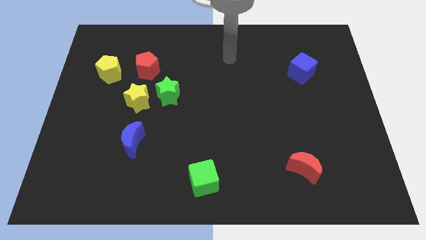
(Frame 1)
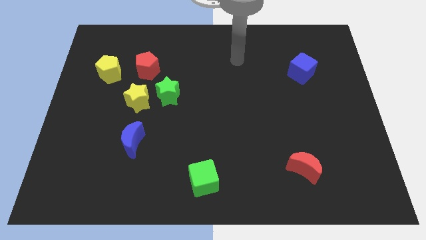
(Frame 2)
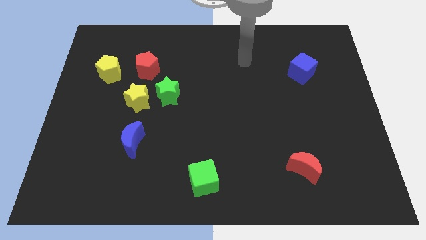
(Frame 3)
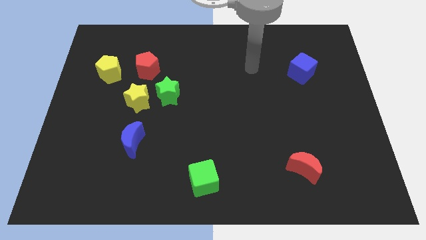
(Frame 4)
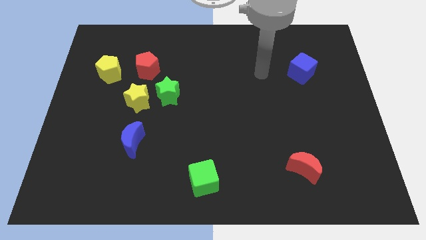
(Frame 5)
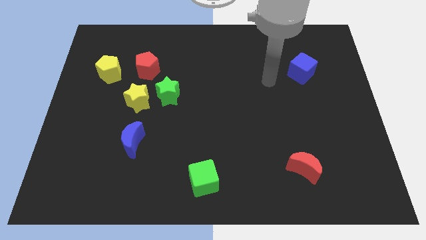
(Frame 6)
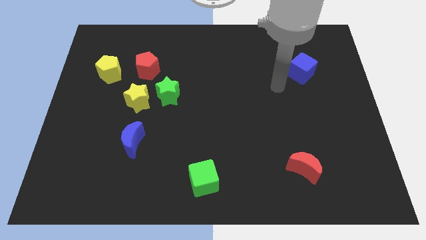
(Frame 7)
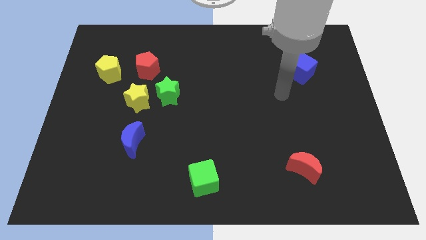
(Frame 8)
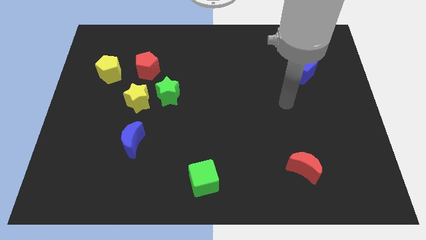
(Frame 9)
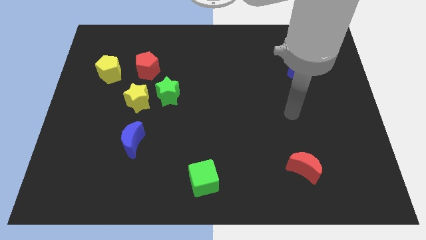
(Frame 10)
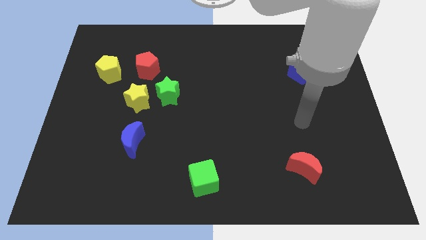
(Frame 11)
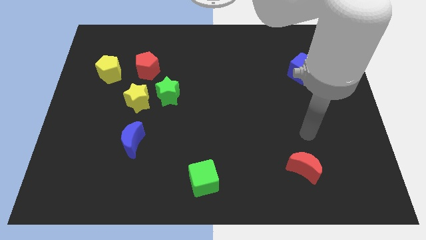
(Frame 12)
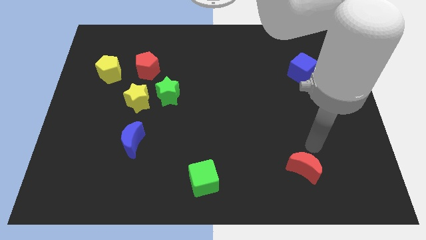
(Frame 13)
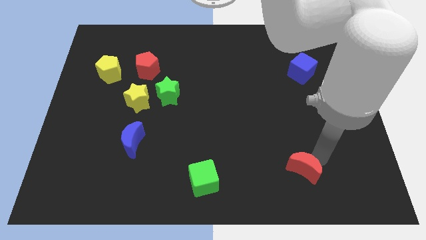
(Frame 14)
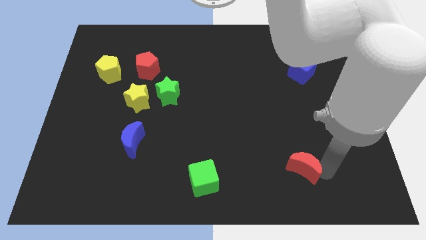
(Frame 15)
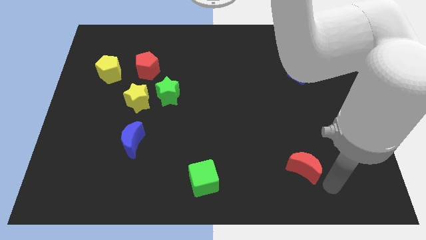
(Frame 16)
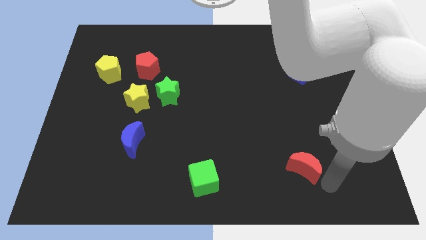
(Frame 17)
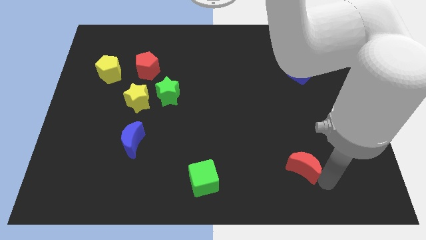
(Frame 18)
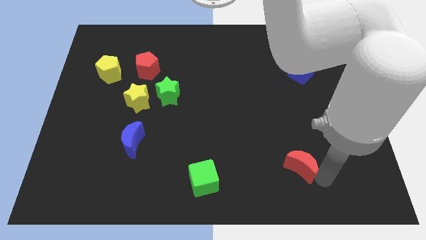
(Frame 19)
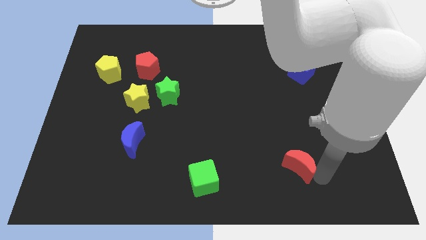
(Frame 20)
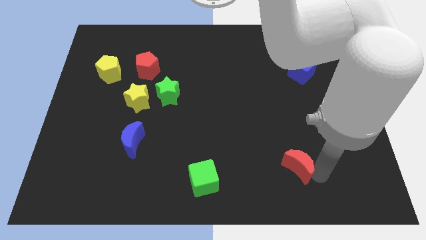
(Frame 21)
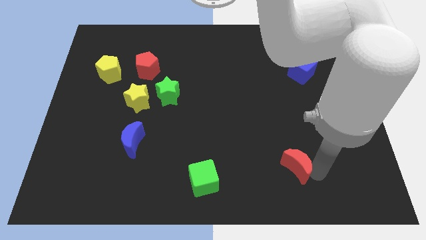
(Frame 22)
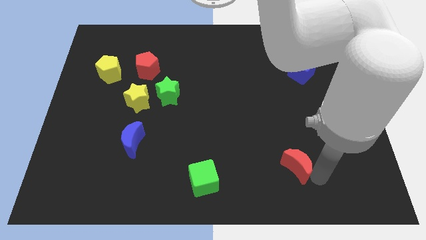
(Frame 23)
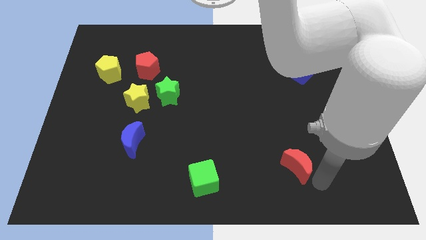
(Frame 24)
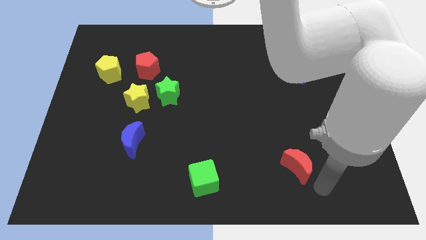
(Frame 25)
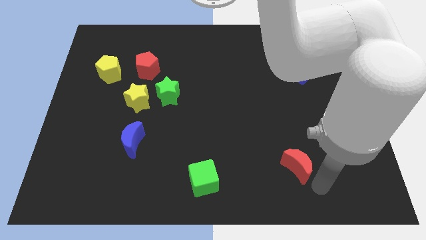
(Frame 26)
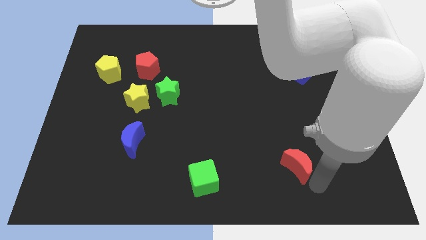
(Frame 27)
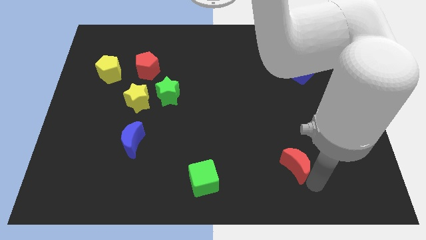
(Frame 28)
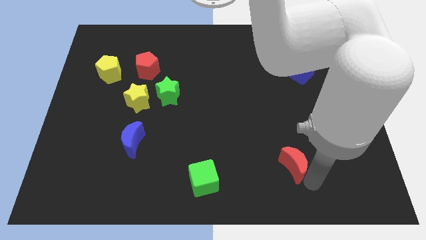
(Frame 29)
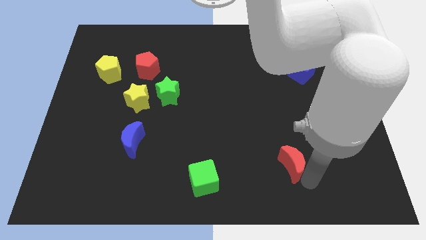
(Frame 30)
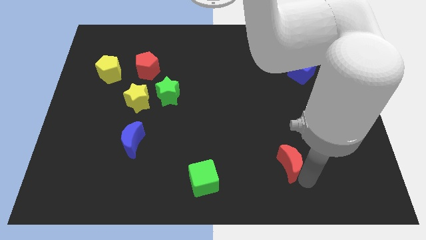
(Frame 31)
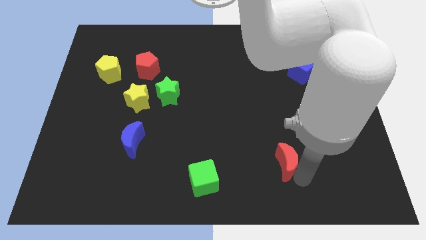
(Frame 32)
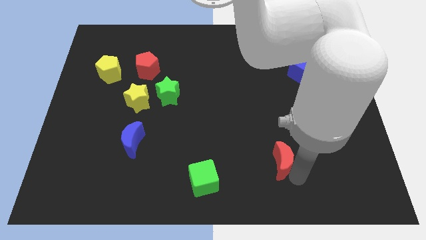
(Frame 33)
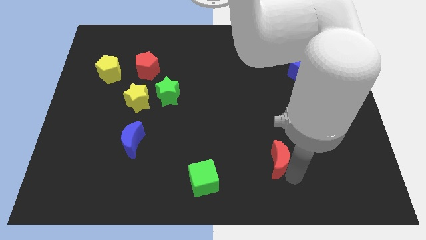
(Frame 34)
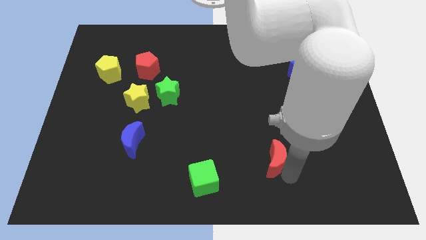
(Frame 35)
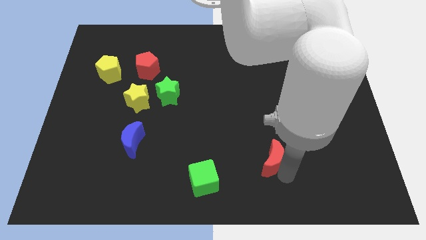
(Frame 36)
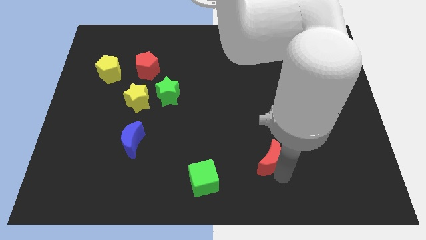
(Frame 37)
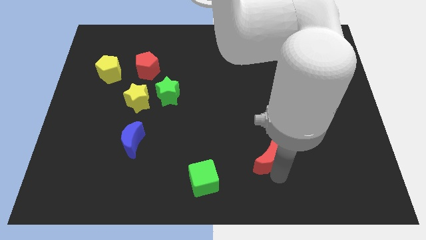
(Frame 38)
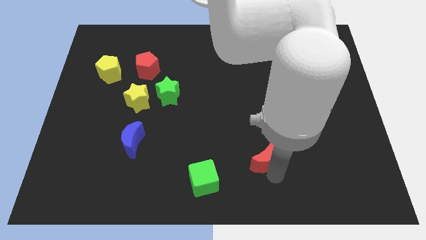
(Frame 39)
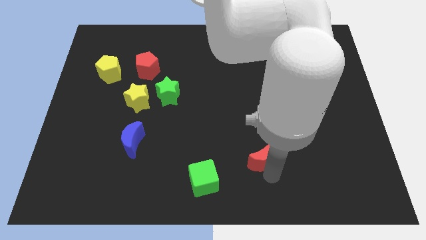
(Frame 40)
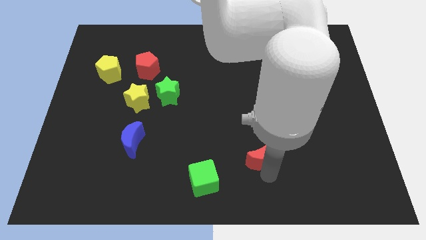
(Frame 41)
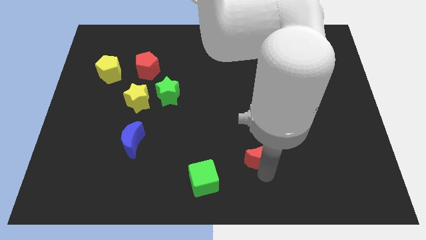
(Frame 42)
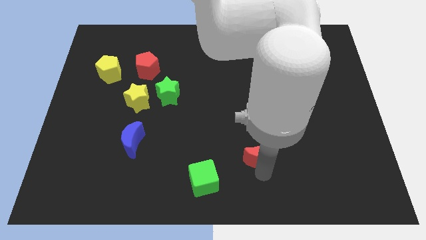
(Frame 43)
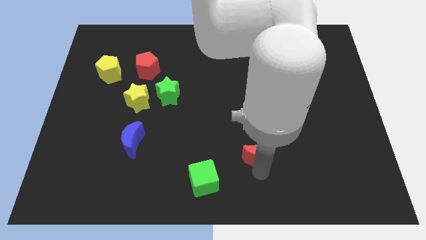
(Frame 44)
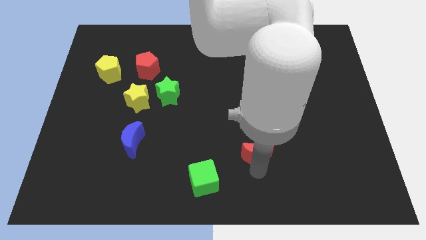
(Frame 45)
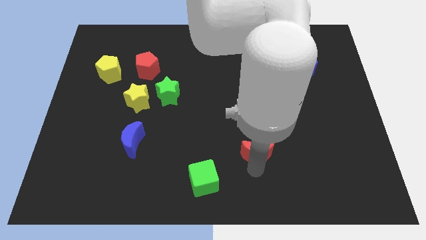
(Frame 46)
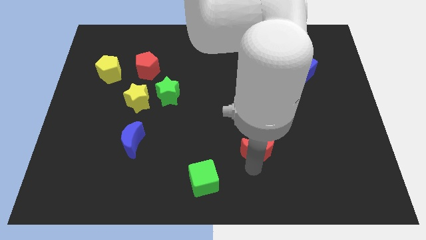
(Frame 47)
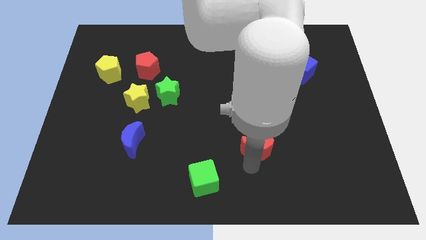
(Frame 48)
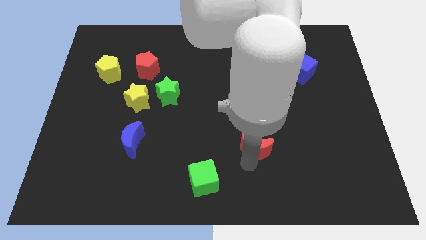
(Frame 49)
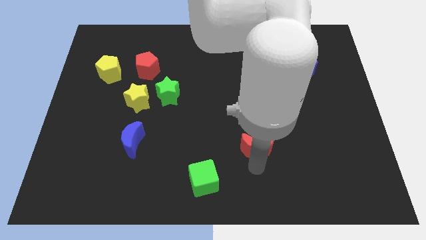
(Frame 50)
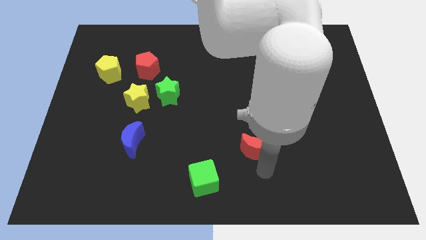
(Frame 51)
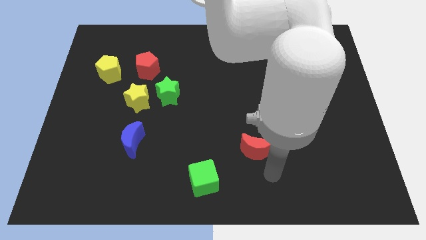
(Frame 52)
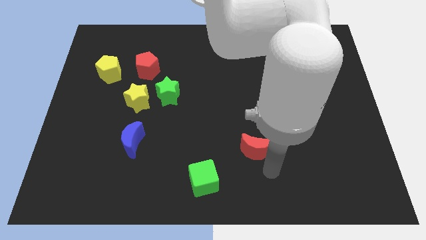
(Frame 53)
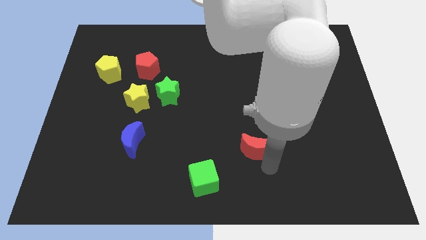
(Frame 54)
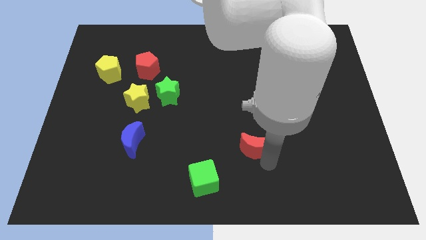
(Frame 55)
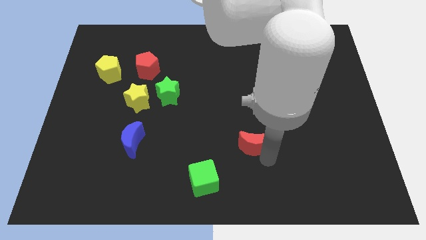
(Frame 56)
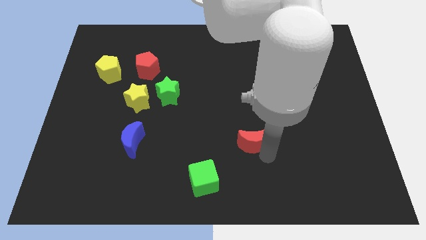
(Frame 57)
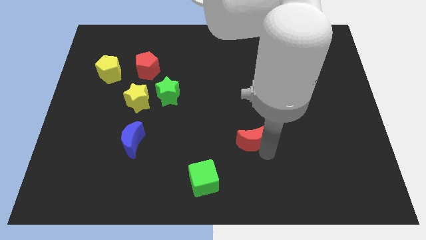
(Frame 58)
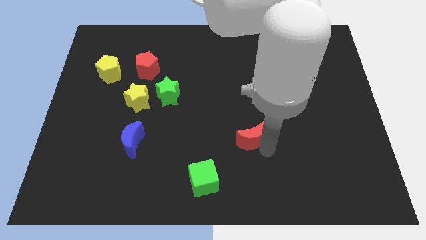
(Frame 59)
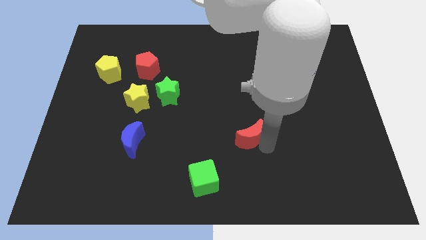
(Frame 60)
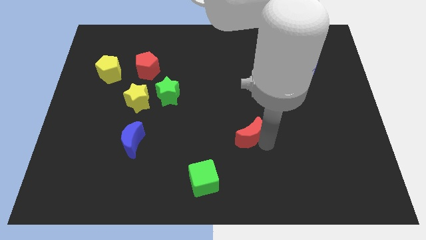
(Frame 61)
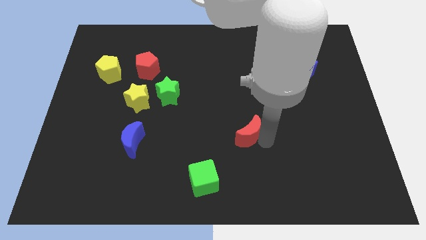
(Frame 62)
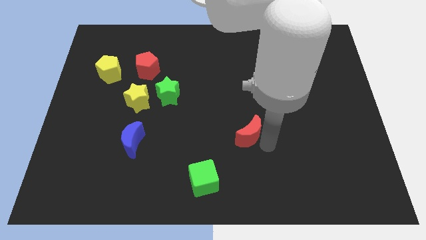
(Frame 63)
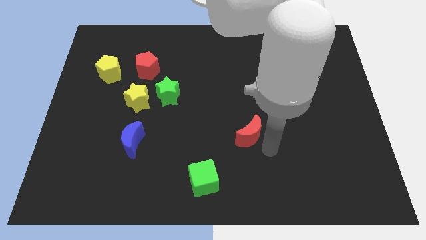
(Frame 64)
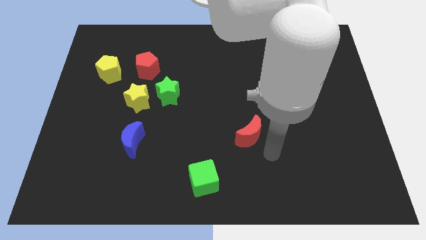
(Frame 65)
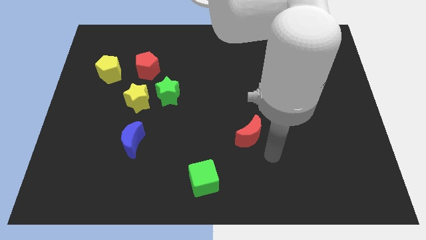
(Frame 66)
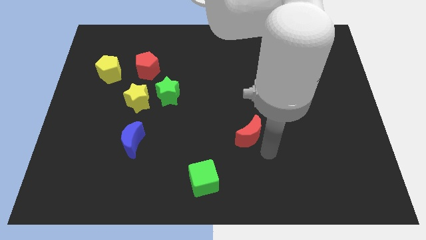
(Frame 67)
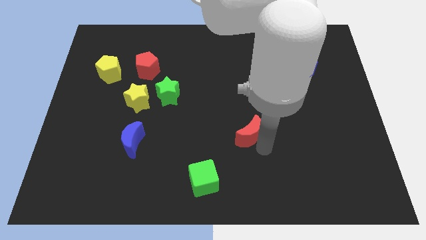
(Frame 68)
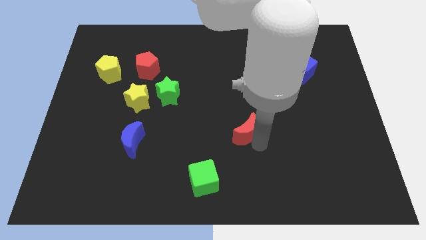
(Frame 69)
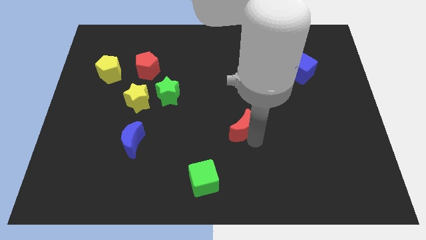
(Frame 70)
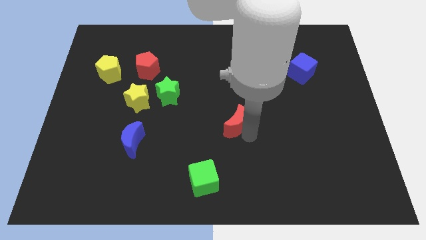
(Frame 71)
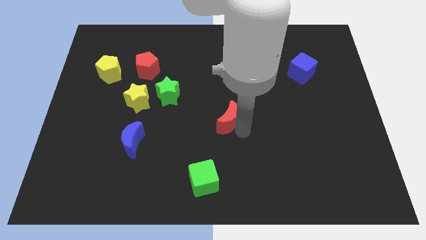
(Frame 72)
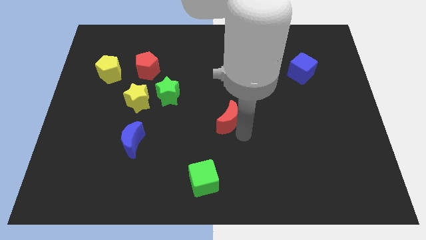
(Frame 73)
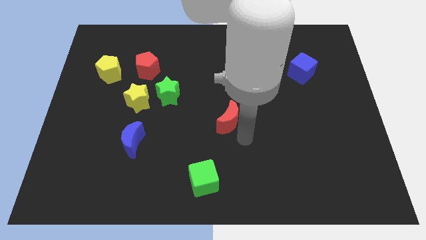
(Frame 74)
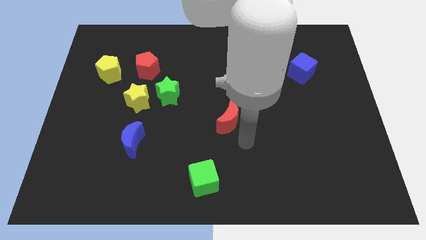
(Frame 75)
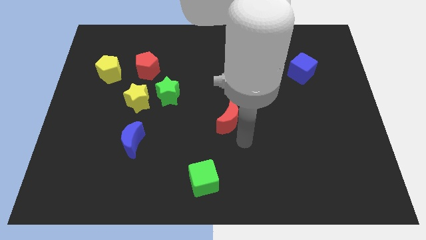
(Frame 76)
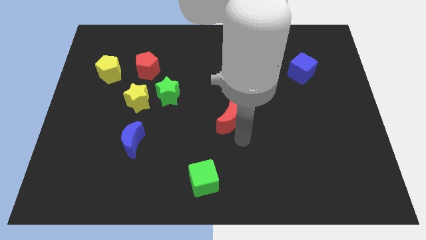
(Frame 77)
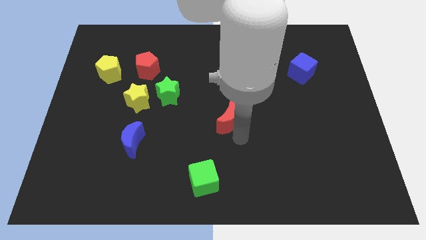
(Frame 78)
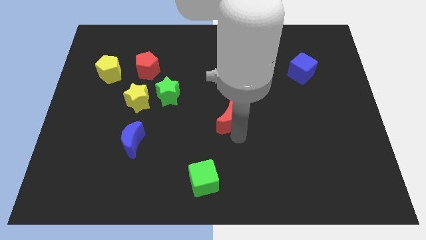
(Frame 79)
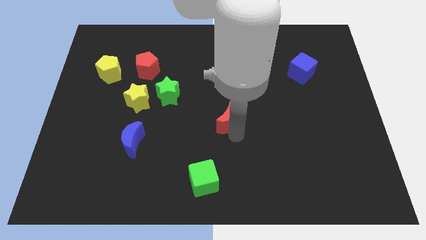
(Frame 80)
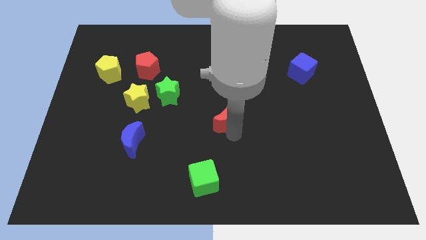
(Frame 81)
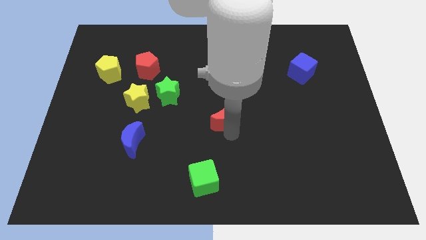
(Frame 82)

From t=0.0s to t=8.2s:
slide the red moon up and to the left diagonally
